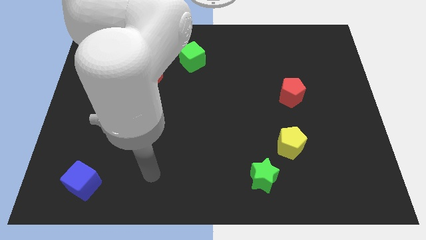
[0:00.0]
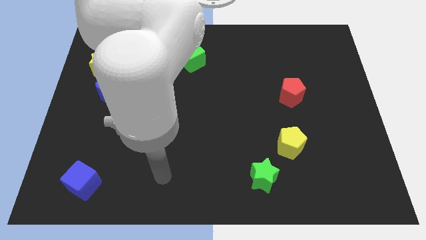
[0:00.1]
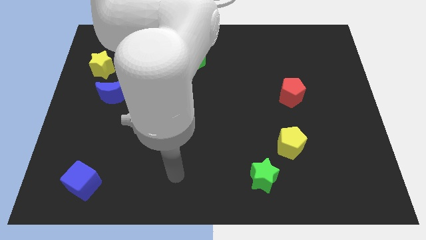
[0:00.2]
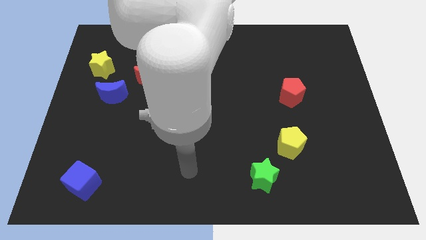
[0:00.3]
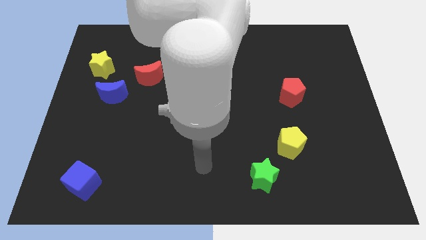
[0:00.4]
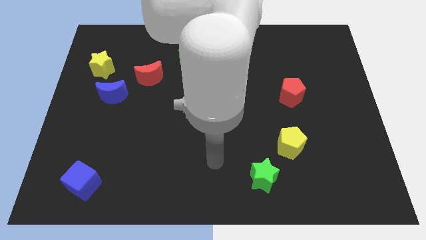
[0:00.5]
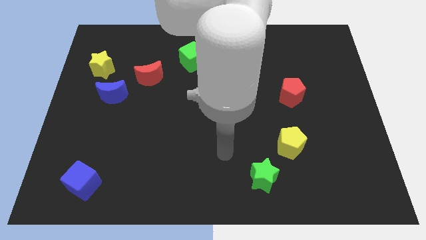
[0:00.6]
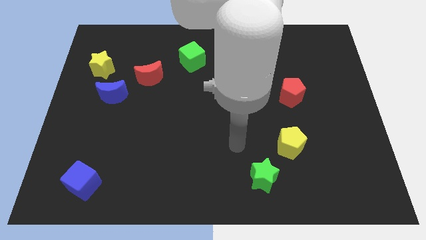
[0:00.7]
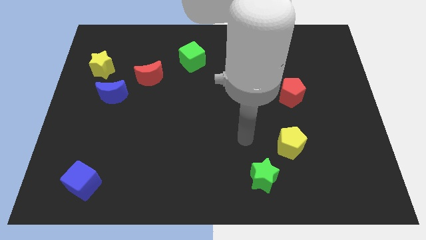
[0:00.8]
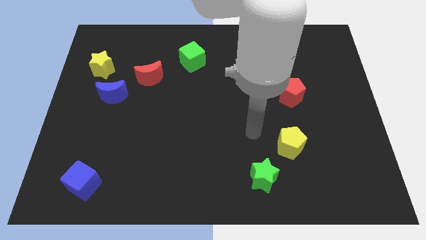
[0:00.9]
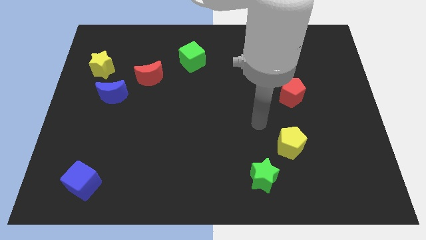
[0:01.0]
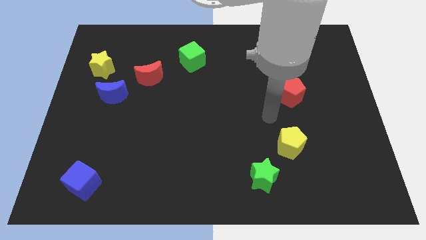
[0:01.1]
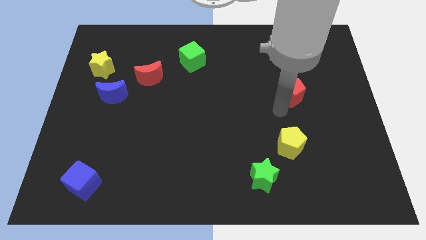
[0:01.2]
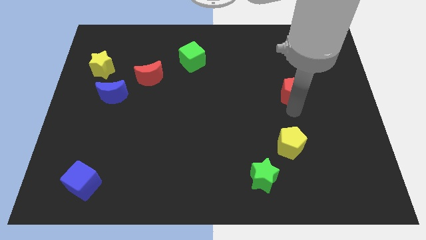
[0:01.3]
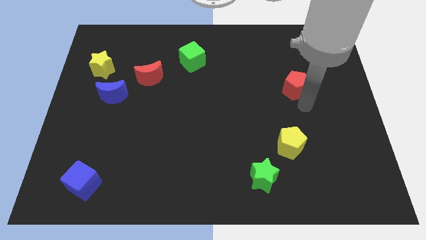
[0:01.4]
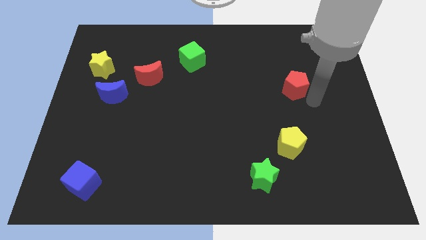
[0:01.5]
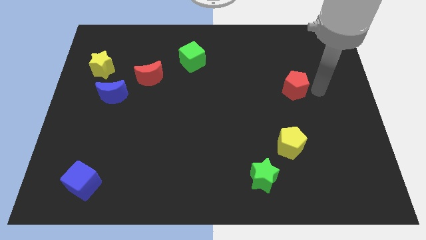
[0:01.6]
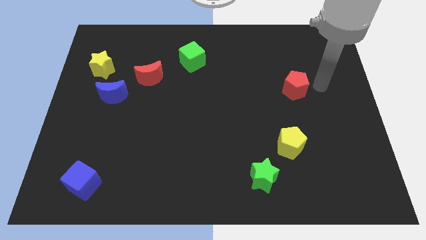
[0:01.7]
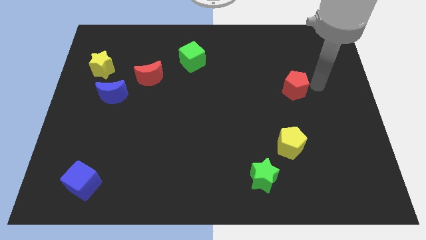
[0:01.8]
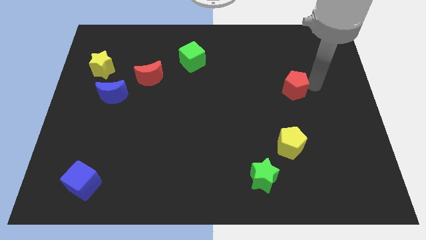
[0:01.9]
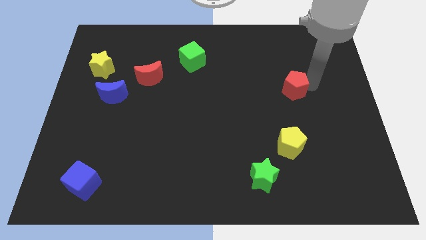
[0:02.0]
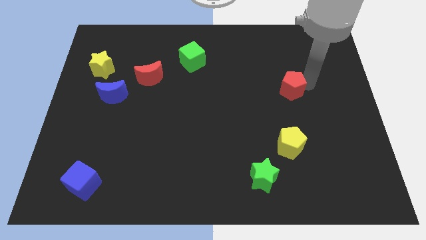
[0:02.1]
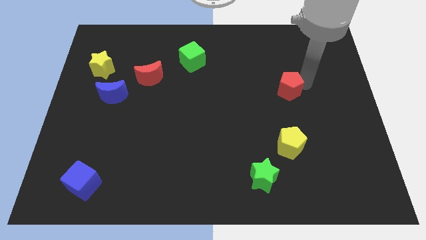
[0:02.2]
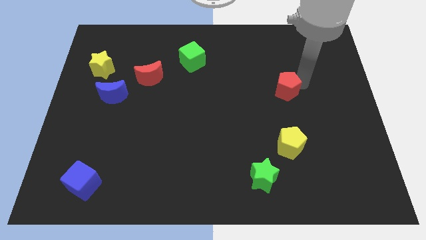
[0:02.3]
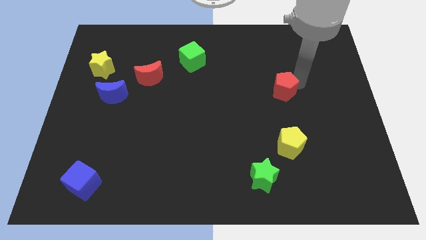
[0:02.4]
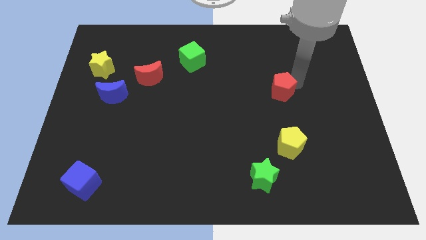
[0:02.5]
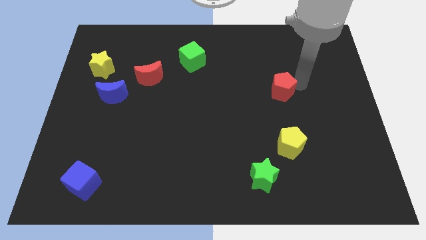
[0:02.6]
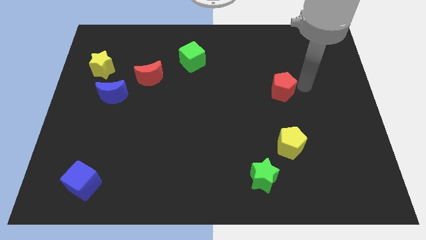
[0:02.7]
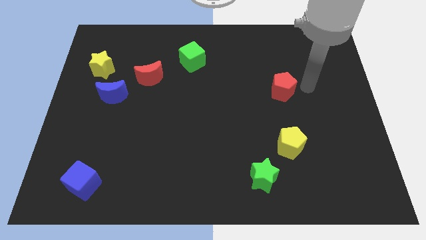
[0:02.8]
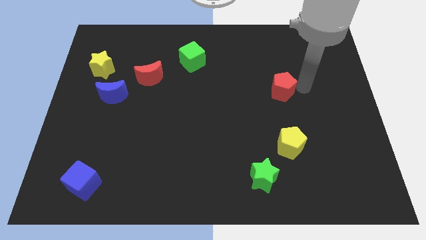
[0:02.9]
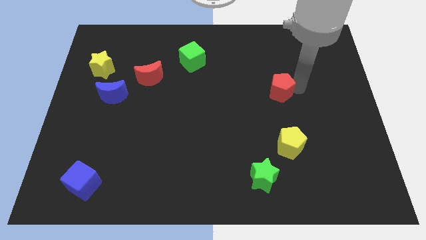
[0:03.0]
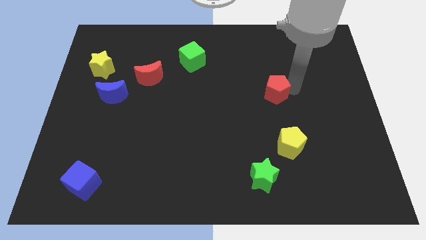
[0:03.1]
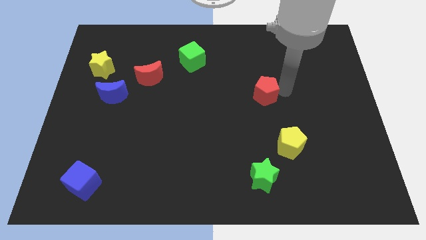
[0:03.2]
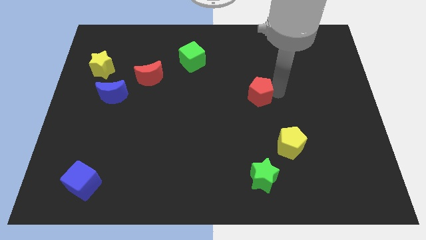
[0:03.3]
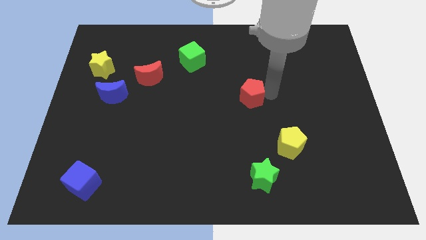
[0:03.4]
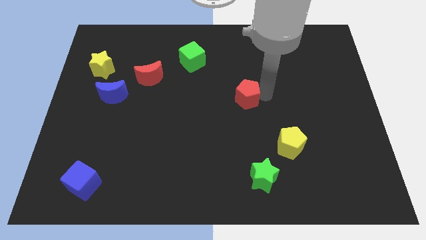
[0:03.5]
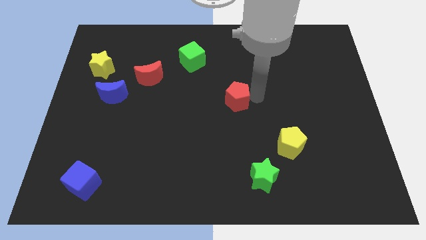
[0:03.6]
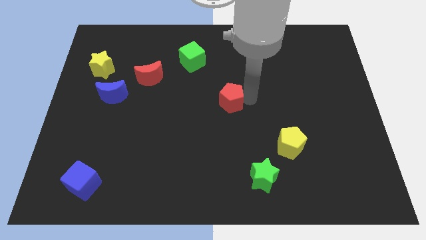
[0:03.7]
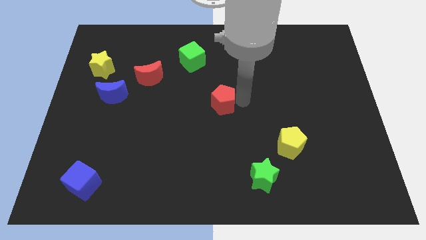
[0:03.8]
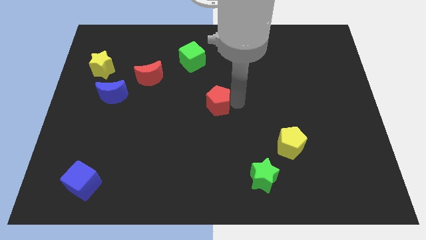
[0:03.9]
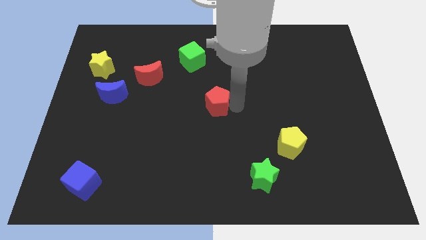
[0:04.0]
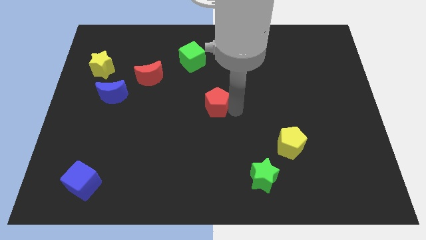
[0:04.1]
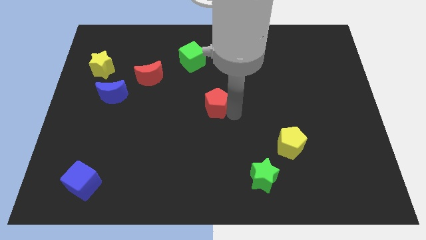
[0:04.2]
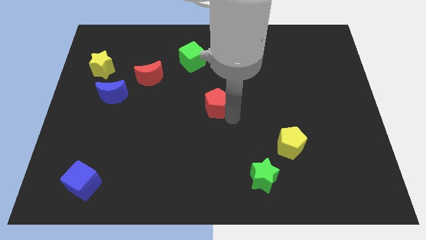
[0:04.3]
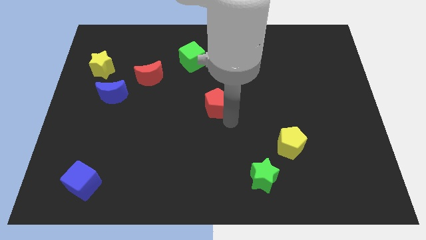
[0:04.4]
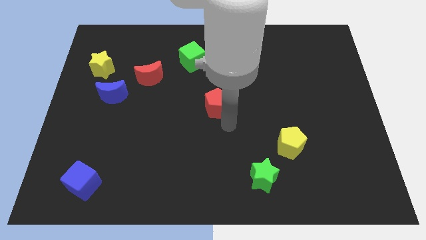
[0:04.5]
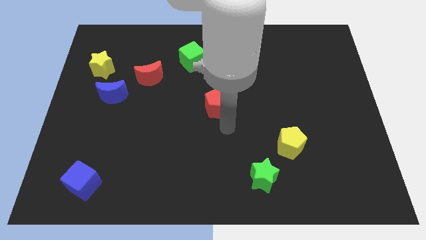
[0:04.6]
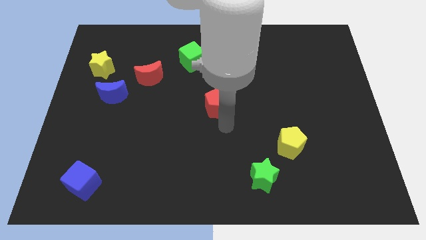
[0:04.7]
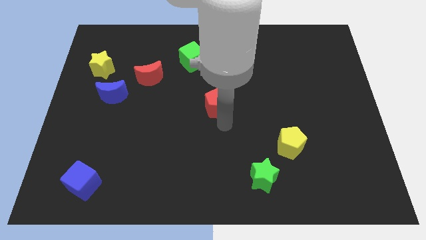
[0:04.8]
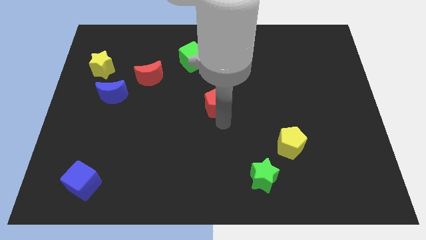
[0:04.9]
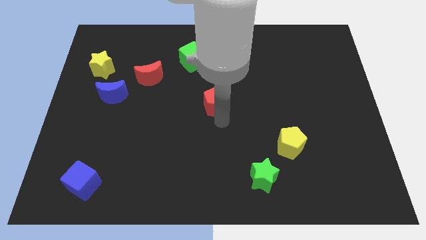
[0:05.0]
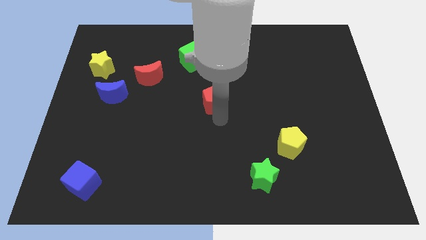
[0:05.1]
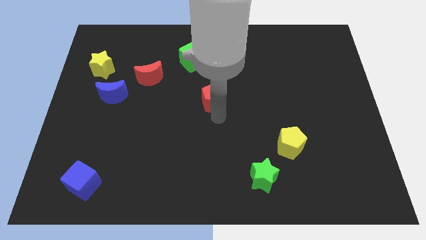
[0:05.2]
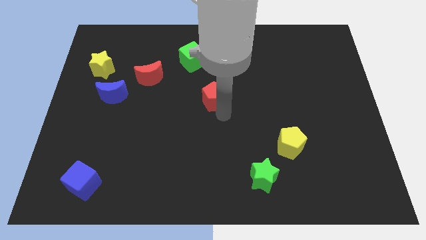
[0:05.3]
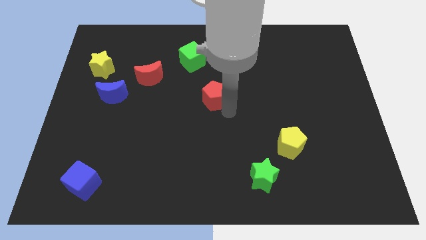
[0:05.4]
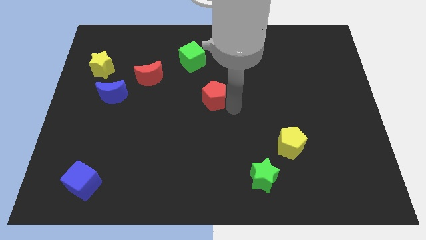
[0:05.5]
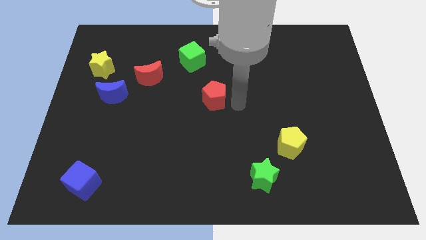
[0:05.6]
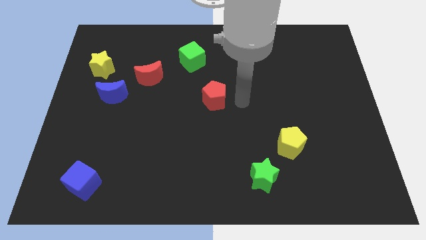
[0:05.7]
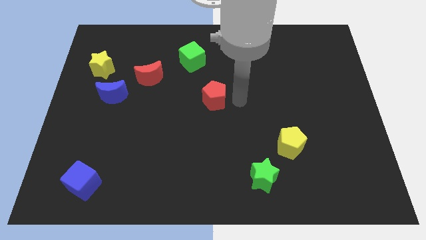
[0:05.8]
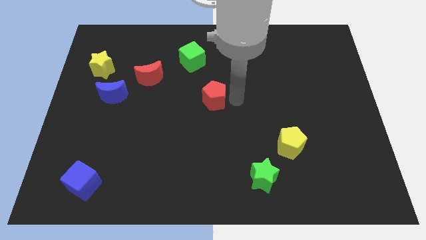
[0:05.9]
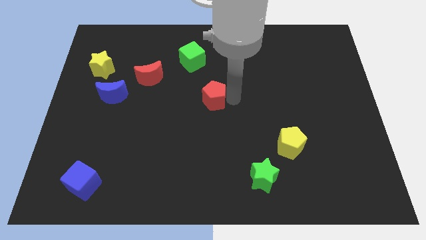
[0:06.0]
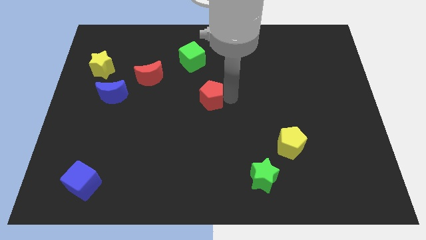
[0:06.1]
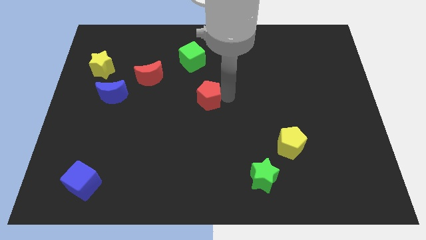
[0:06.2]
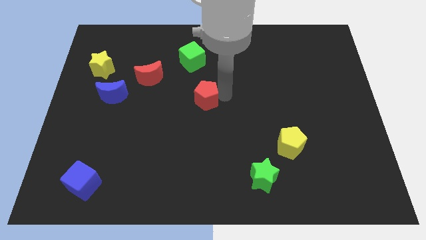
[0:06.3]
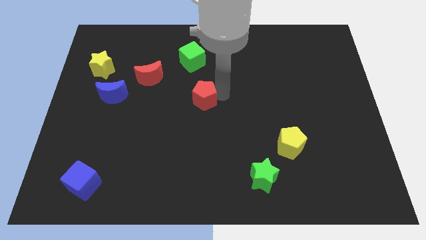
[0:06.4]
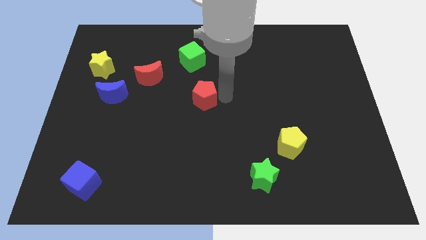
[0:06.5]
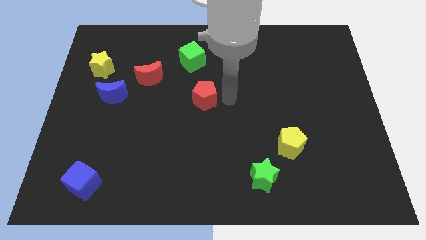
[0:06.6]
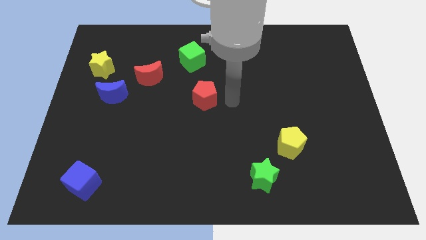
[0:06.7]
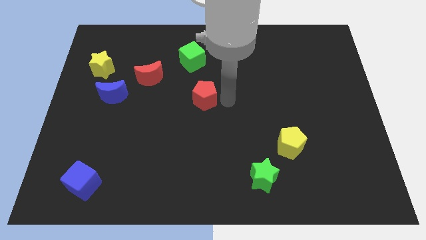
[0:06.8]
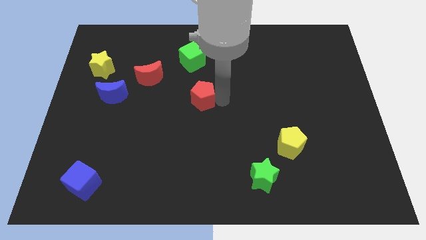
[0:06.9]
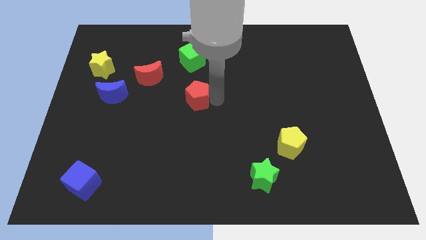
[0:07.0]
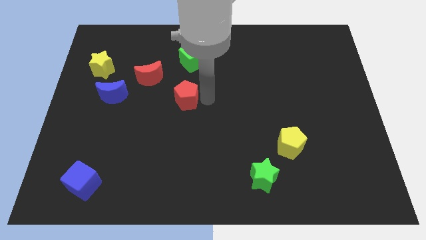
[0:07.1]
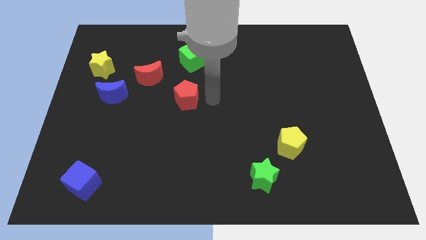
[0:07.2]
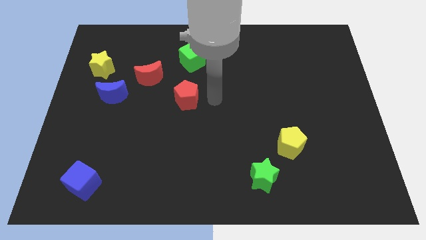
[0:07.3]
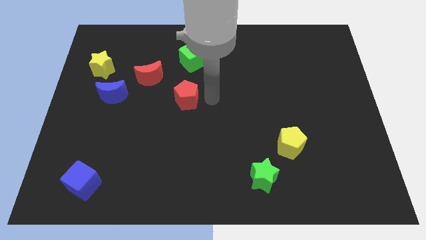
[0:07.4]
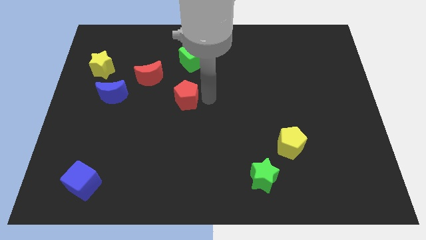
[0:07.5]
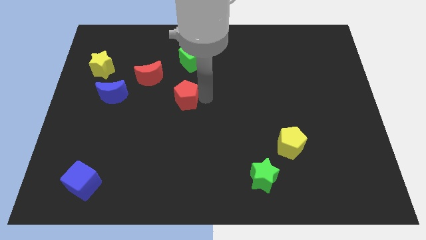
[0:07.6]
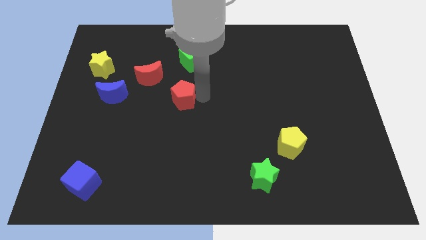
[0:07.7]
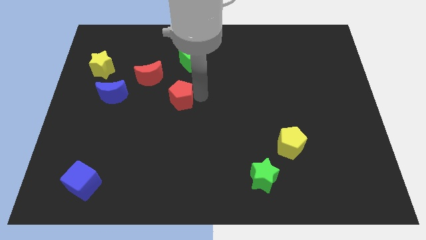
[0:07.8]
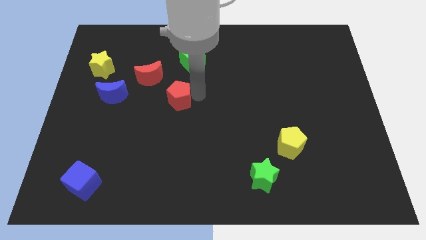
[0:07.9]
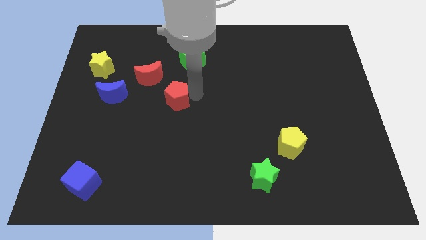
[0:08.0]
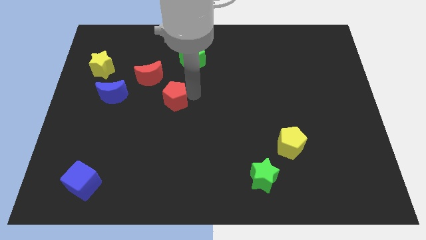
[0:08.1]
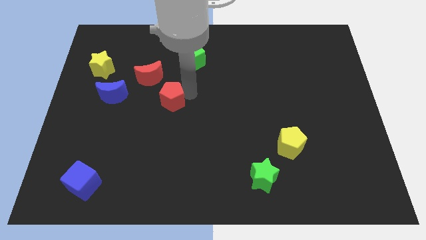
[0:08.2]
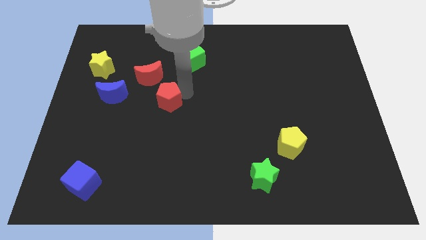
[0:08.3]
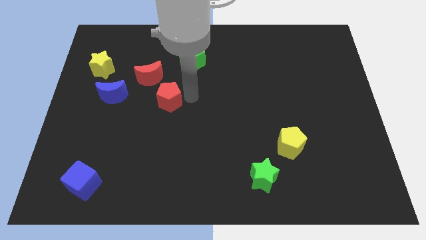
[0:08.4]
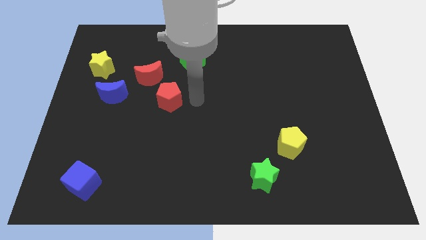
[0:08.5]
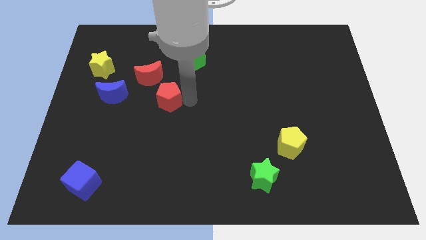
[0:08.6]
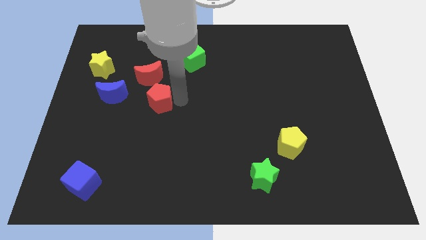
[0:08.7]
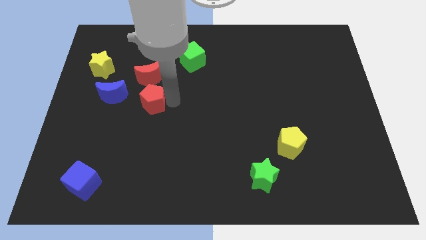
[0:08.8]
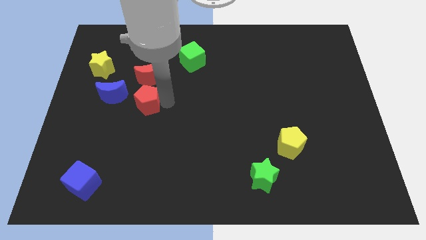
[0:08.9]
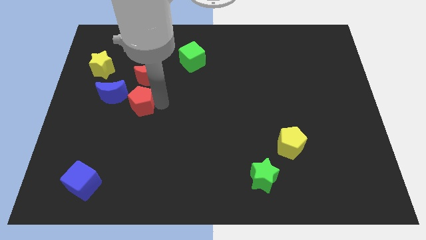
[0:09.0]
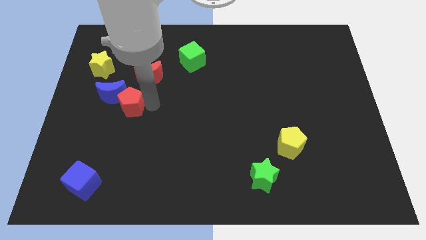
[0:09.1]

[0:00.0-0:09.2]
push the red pentagon next to the blue moon
